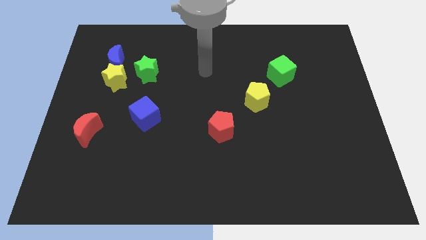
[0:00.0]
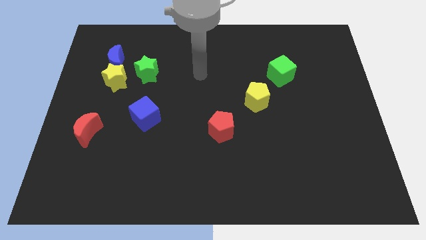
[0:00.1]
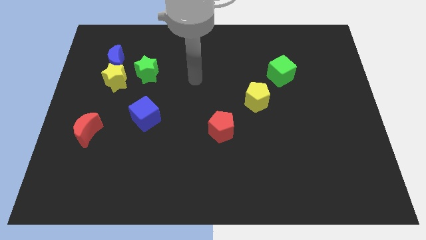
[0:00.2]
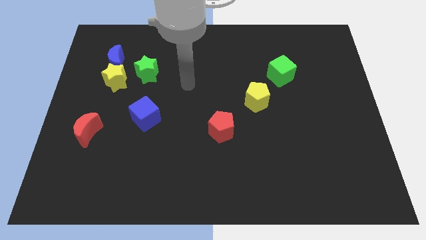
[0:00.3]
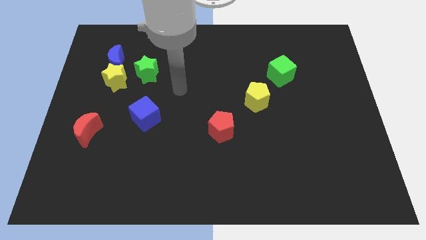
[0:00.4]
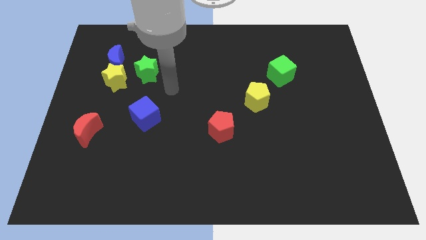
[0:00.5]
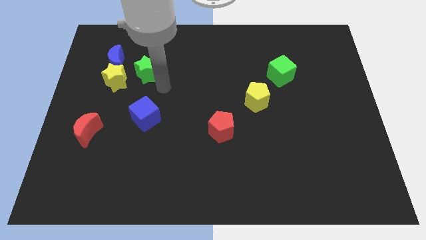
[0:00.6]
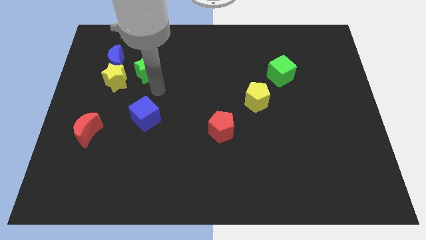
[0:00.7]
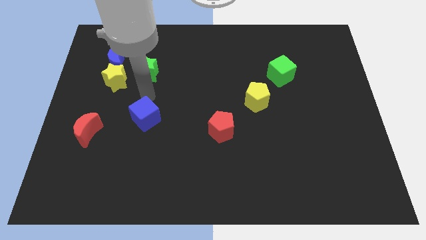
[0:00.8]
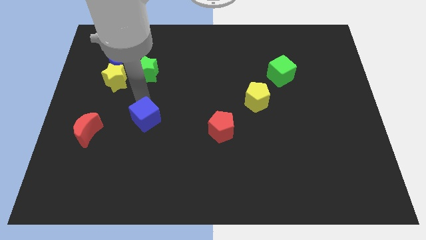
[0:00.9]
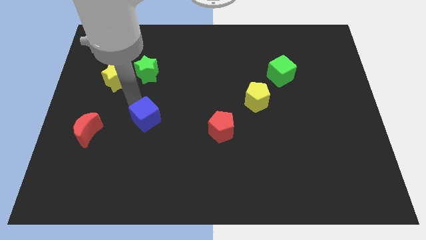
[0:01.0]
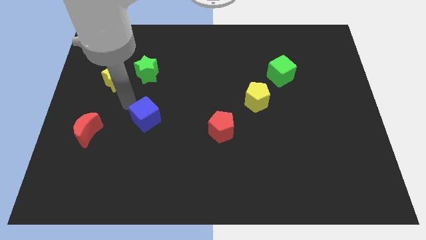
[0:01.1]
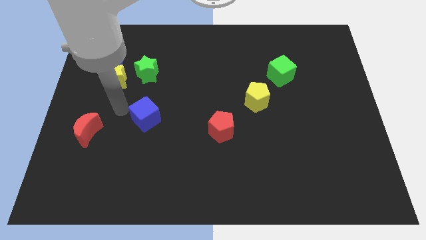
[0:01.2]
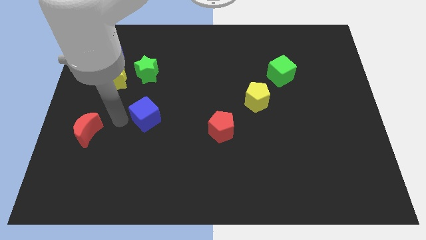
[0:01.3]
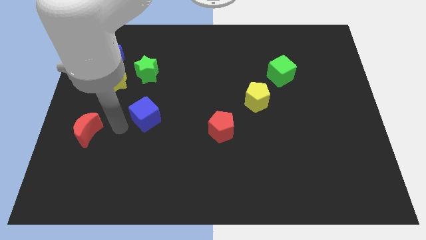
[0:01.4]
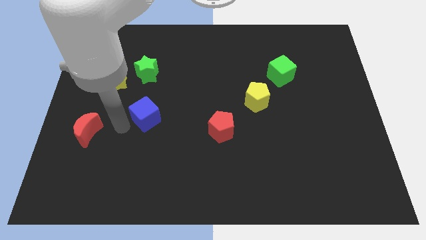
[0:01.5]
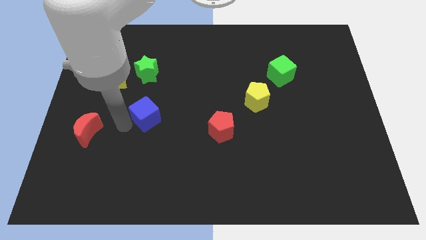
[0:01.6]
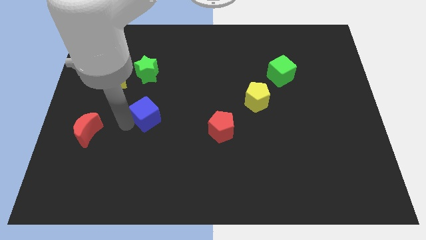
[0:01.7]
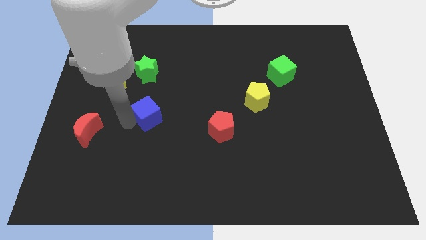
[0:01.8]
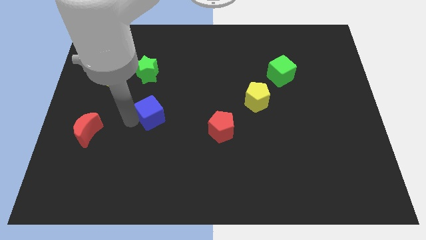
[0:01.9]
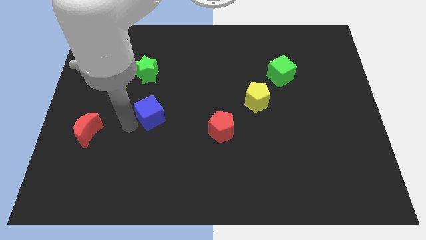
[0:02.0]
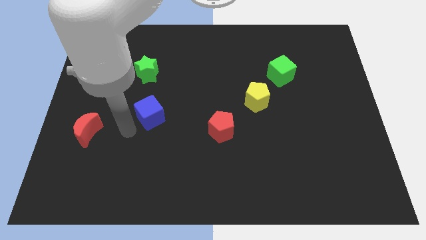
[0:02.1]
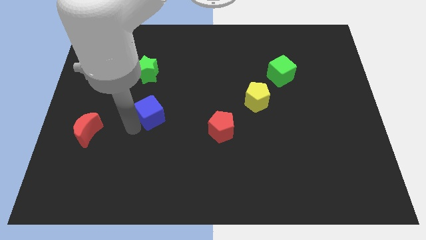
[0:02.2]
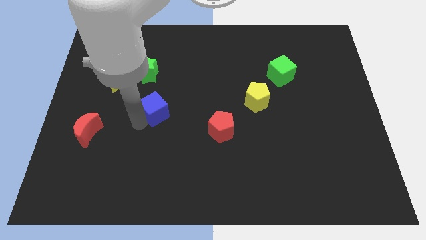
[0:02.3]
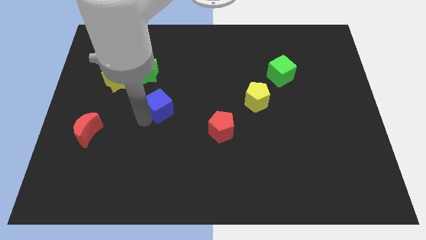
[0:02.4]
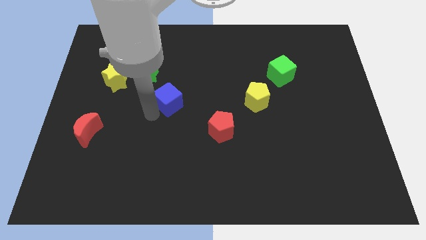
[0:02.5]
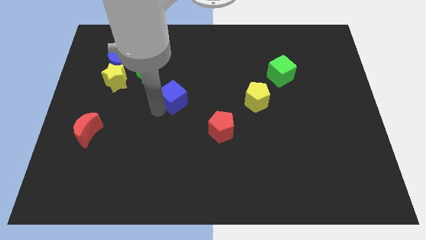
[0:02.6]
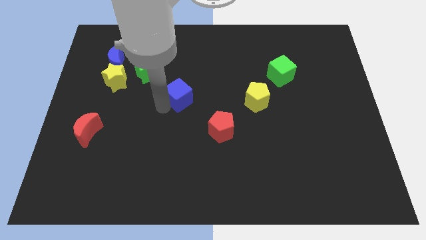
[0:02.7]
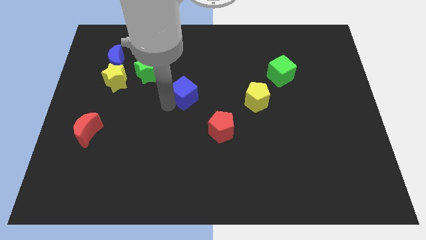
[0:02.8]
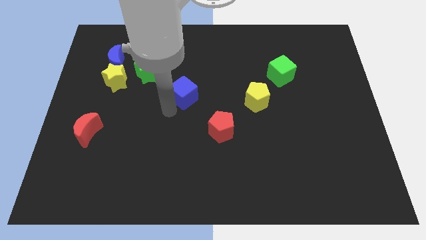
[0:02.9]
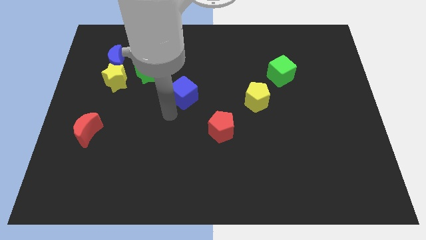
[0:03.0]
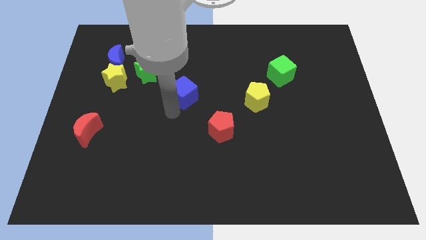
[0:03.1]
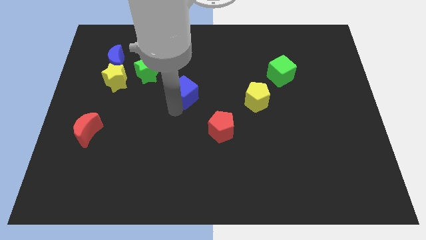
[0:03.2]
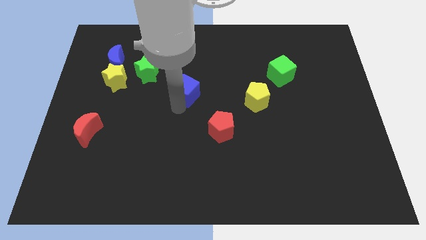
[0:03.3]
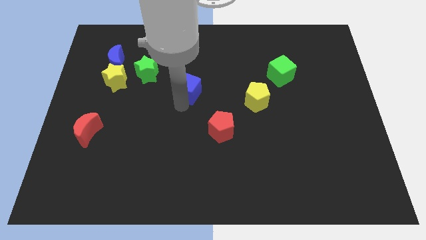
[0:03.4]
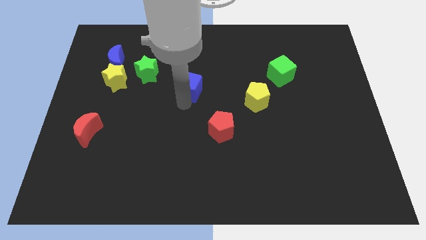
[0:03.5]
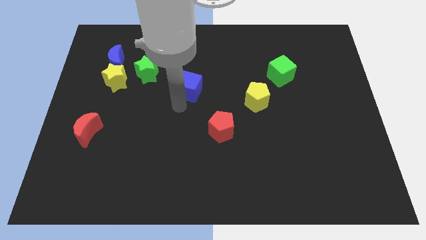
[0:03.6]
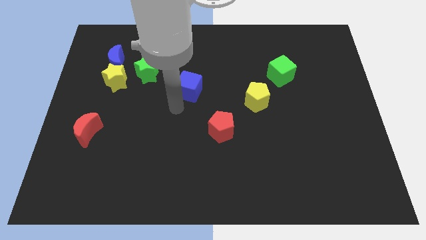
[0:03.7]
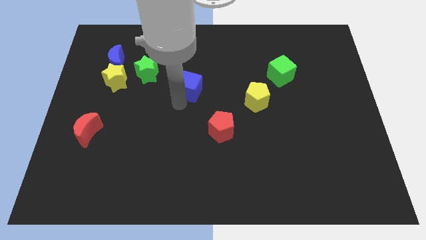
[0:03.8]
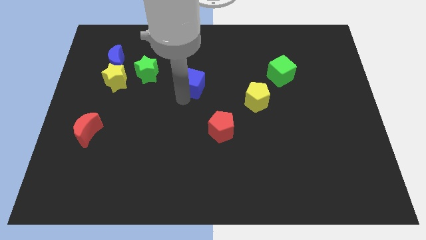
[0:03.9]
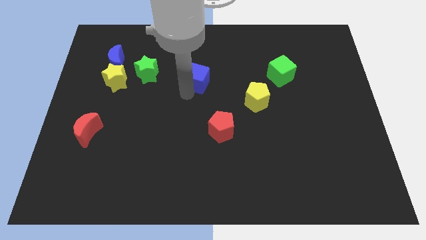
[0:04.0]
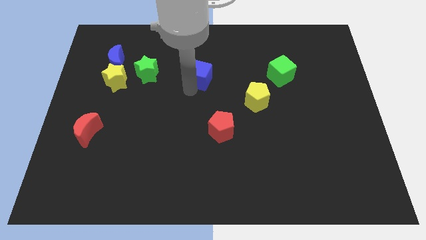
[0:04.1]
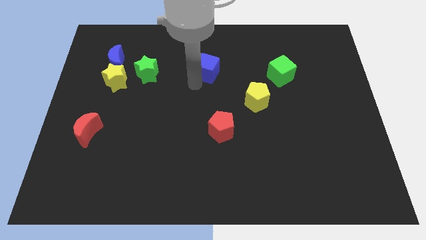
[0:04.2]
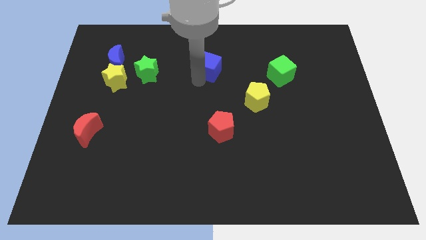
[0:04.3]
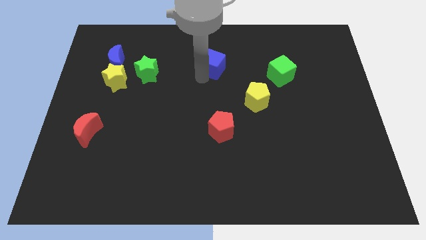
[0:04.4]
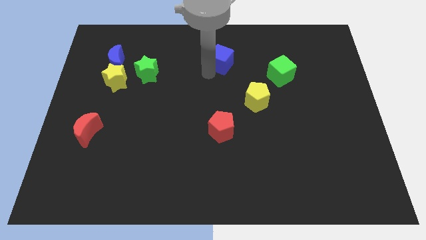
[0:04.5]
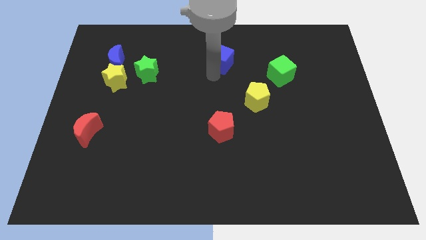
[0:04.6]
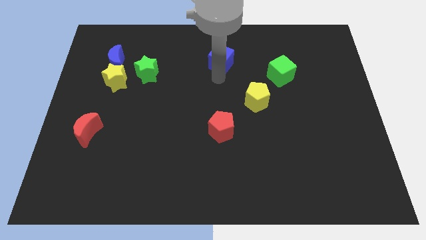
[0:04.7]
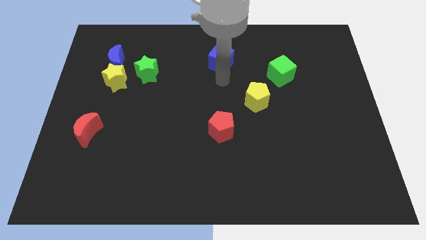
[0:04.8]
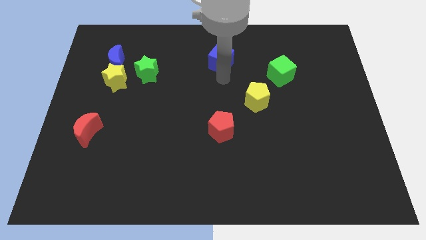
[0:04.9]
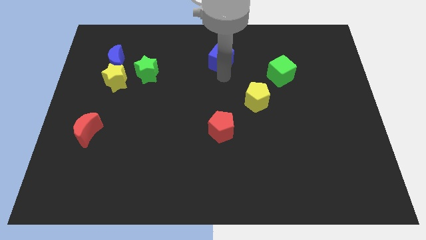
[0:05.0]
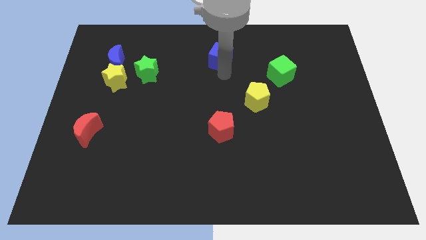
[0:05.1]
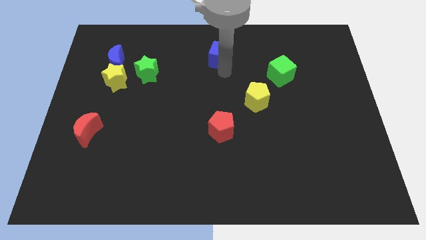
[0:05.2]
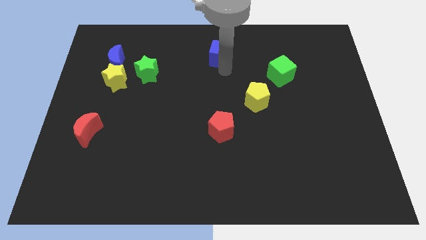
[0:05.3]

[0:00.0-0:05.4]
put the blue cube to the top side
